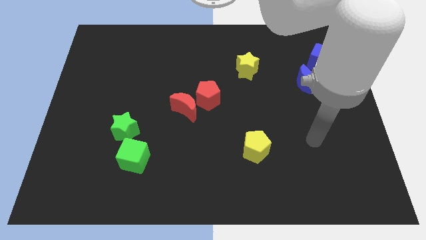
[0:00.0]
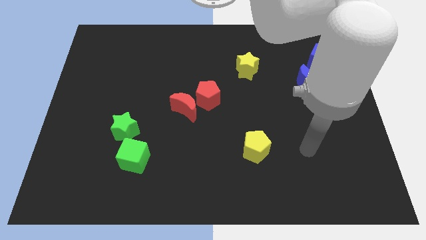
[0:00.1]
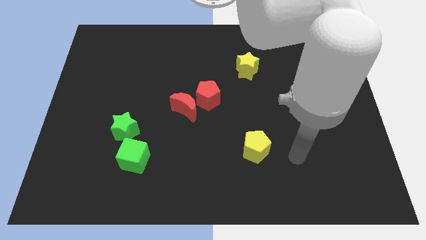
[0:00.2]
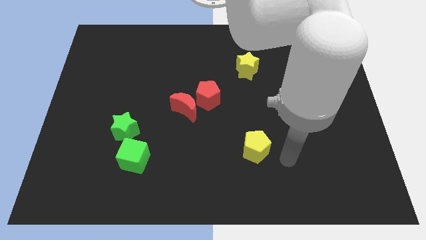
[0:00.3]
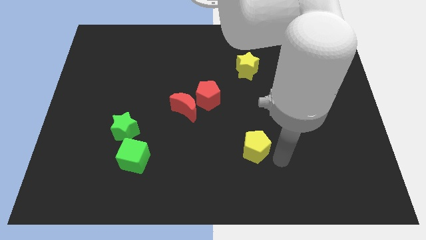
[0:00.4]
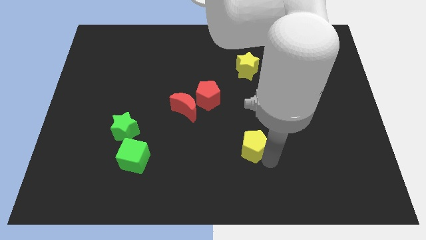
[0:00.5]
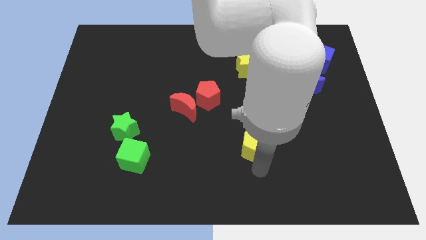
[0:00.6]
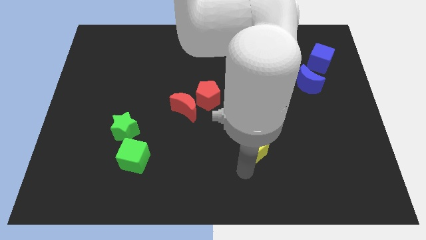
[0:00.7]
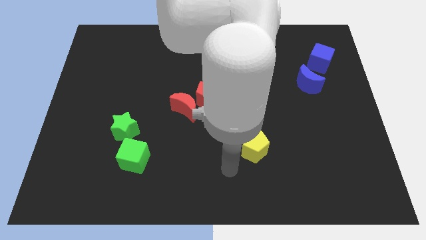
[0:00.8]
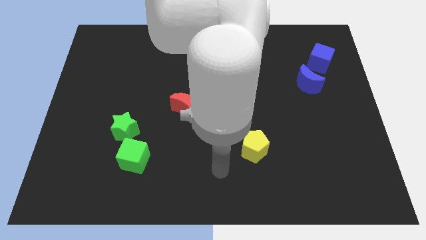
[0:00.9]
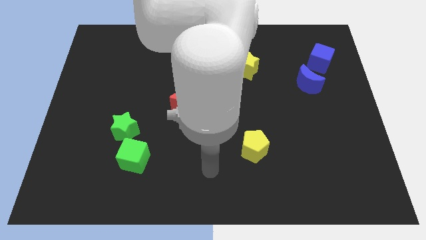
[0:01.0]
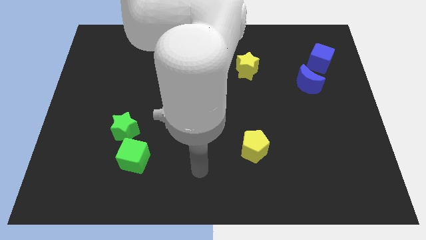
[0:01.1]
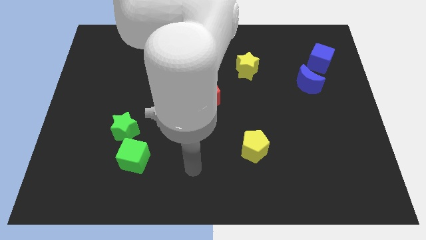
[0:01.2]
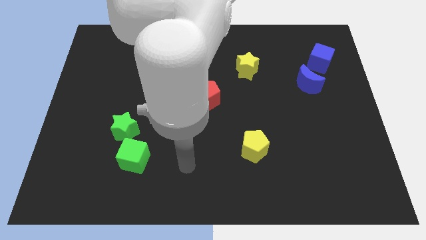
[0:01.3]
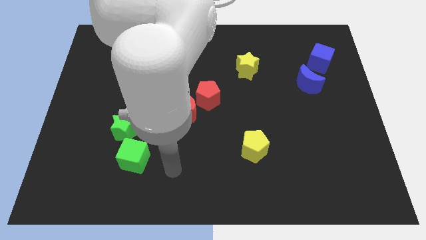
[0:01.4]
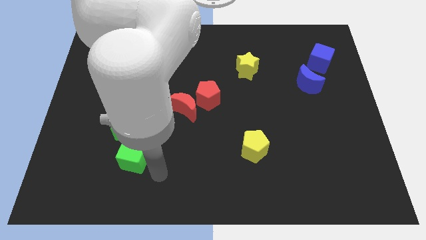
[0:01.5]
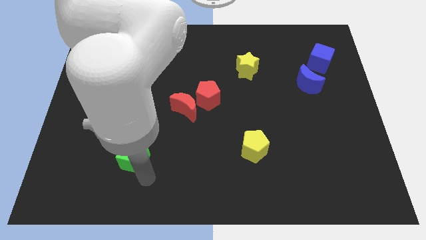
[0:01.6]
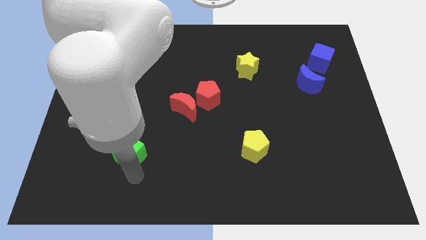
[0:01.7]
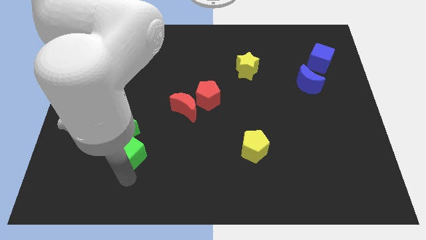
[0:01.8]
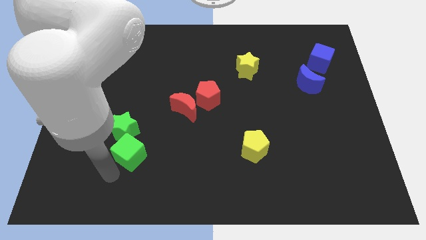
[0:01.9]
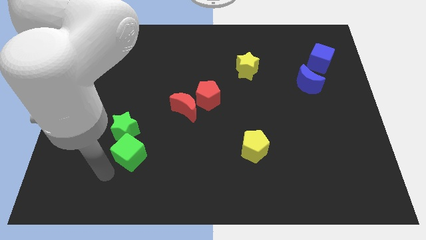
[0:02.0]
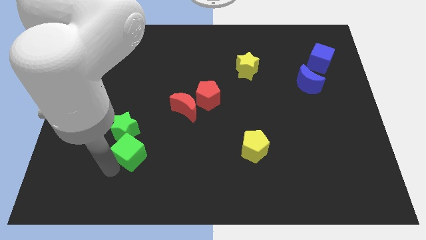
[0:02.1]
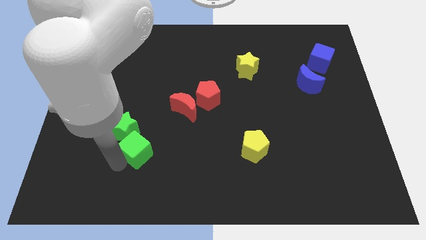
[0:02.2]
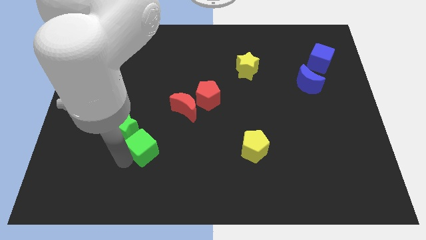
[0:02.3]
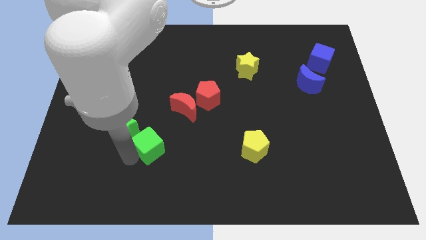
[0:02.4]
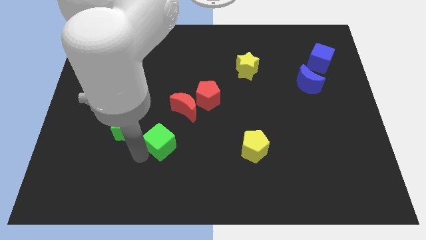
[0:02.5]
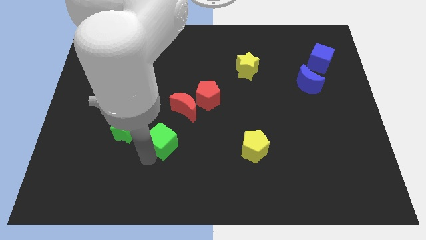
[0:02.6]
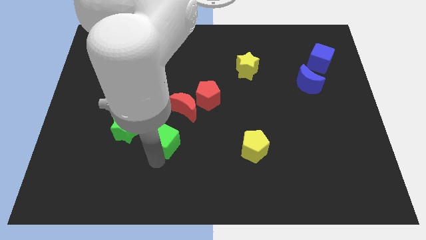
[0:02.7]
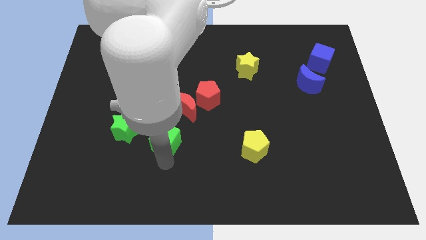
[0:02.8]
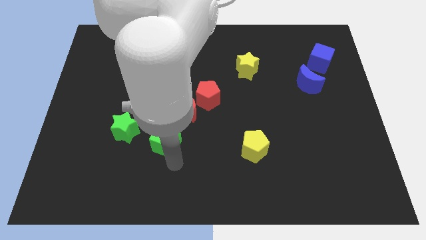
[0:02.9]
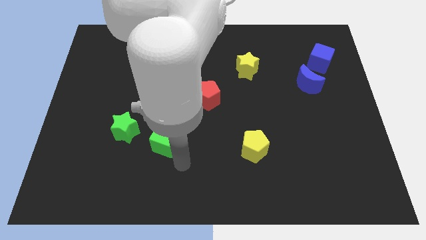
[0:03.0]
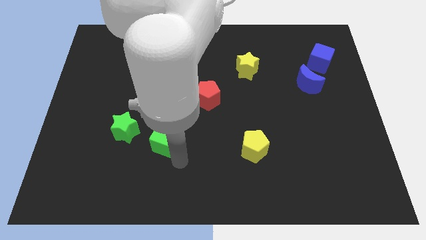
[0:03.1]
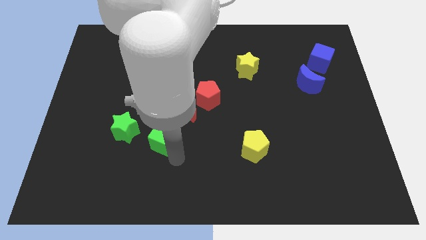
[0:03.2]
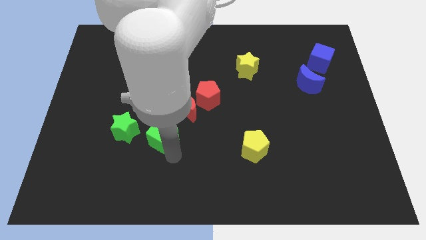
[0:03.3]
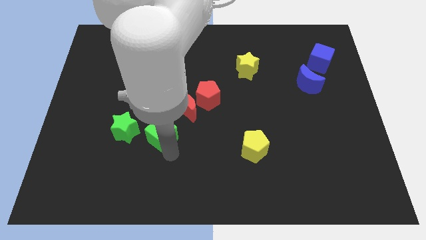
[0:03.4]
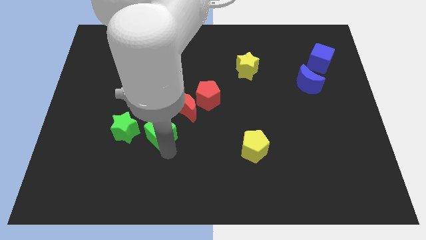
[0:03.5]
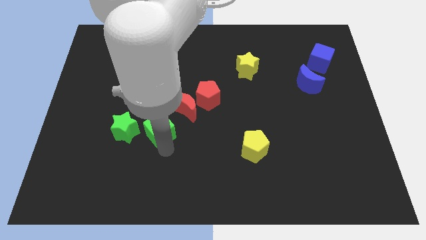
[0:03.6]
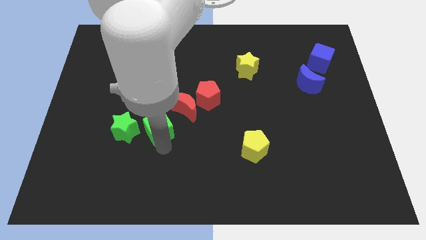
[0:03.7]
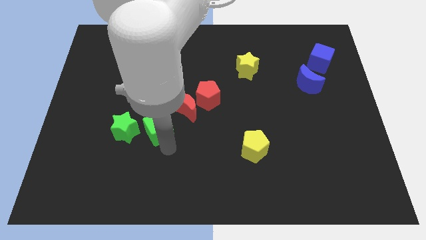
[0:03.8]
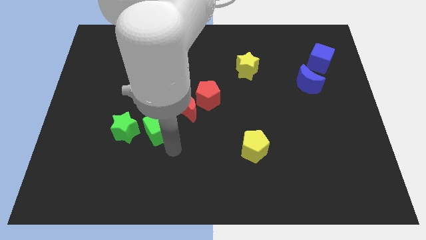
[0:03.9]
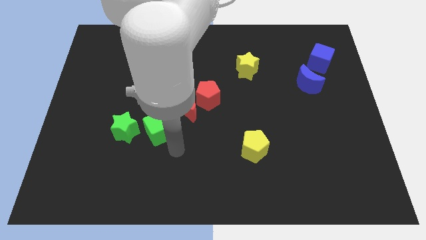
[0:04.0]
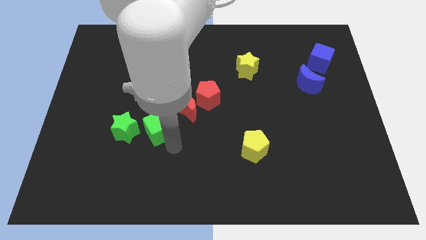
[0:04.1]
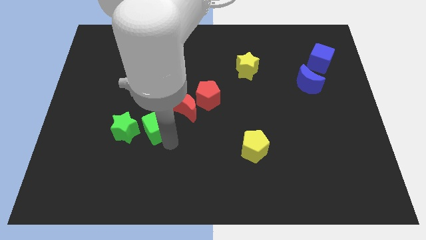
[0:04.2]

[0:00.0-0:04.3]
slightly move the green cube up

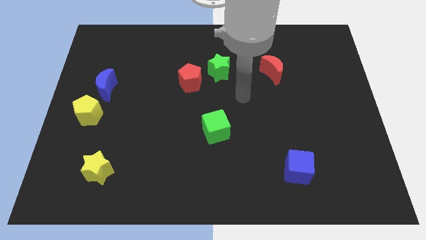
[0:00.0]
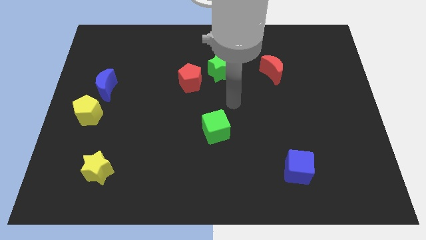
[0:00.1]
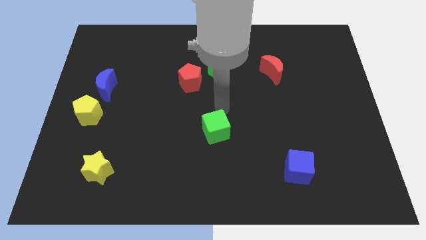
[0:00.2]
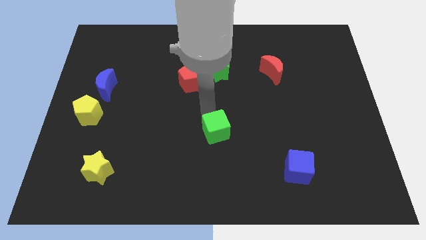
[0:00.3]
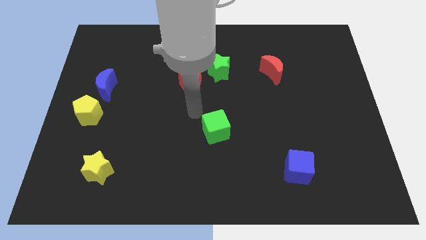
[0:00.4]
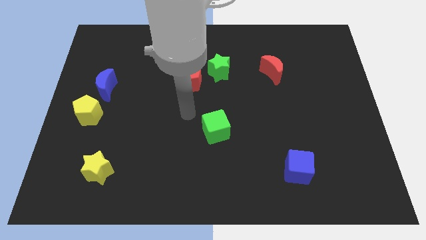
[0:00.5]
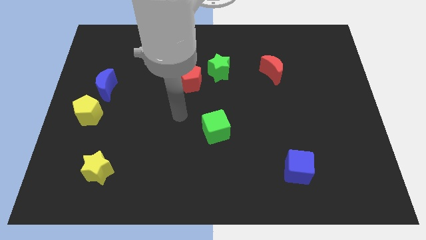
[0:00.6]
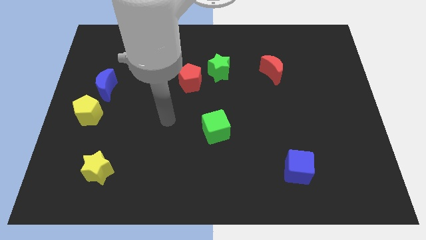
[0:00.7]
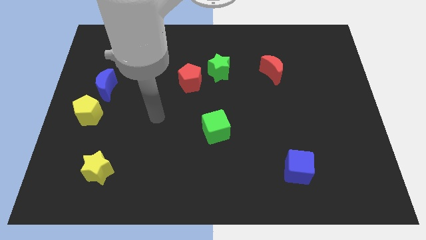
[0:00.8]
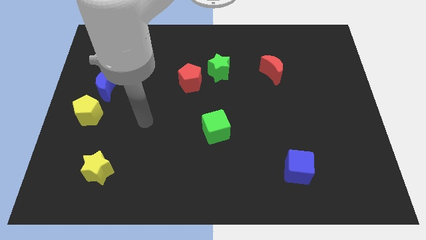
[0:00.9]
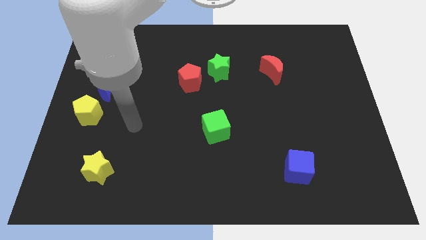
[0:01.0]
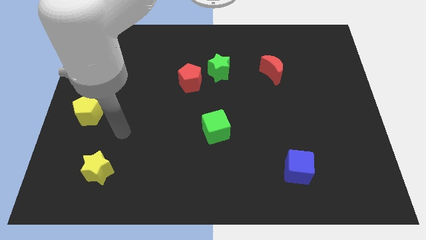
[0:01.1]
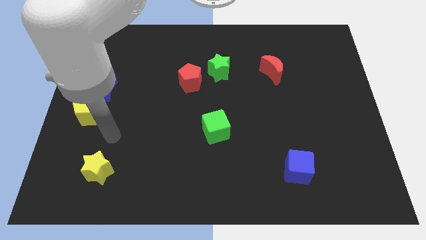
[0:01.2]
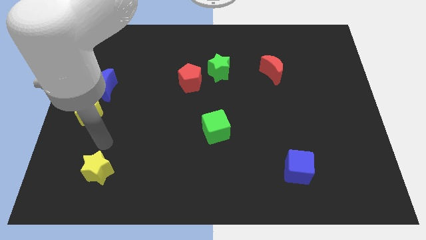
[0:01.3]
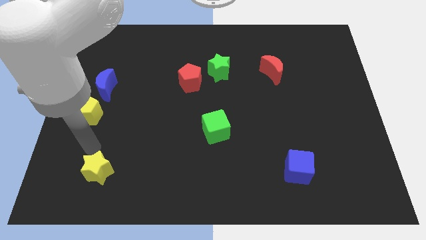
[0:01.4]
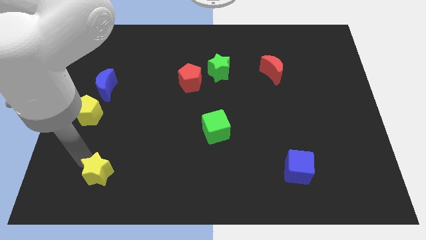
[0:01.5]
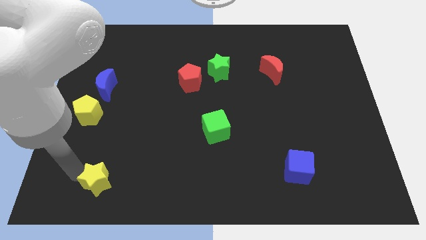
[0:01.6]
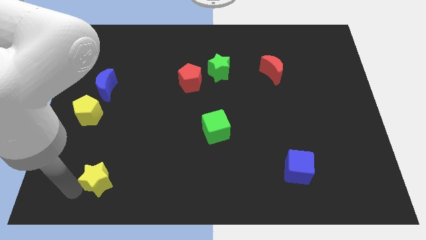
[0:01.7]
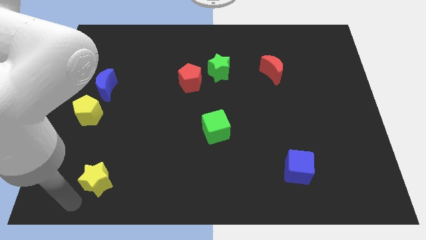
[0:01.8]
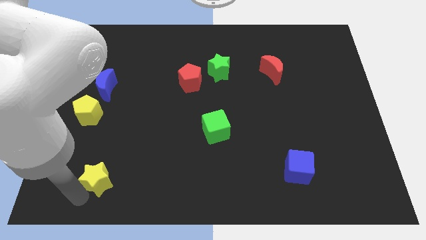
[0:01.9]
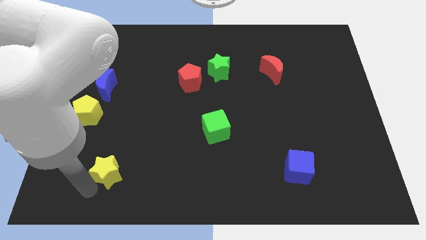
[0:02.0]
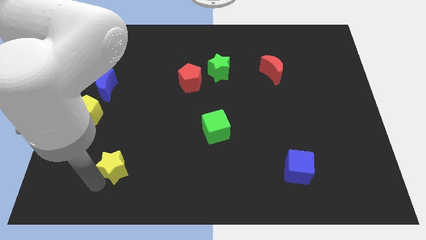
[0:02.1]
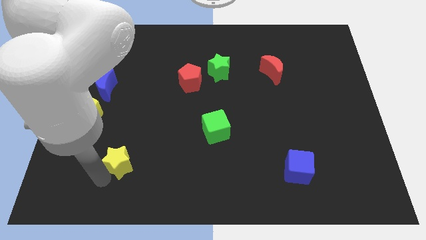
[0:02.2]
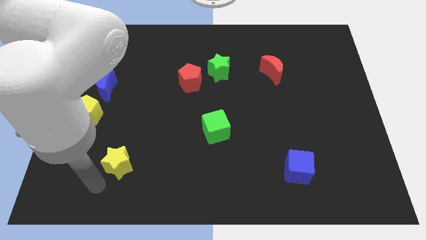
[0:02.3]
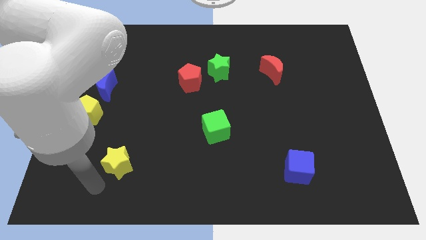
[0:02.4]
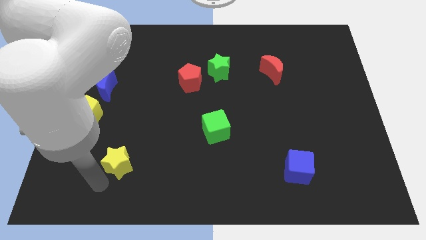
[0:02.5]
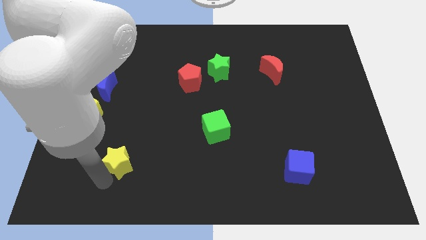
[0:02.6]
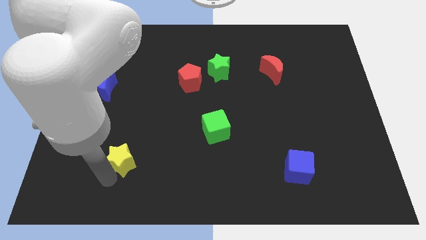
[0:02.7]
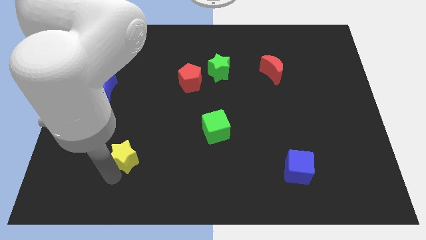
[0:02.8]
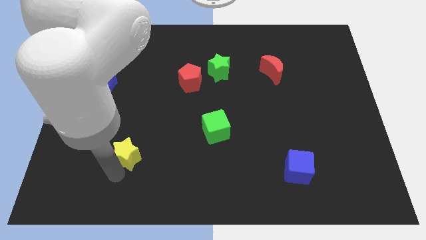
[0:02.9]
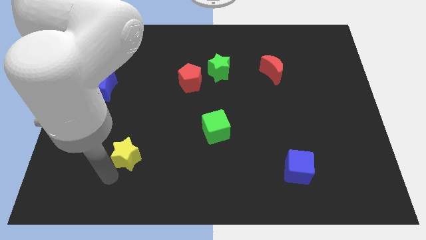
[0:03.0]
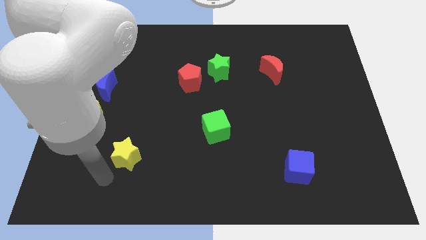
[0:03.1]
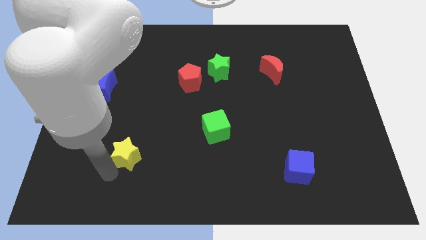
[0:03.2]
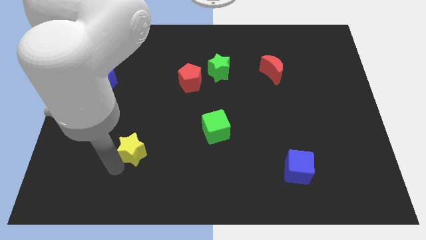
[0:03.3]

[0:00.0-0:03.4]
slightly slide the yellow star upwards and to the right diagonally

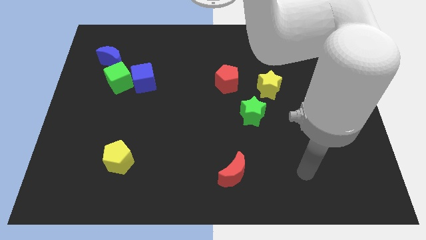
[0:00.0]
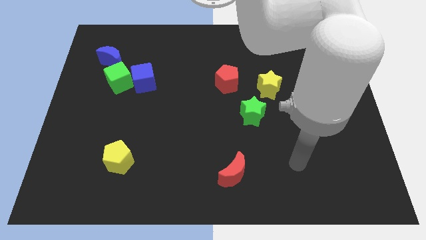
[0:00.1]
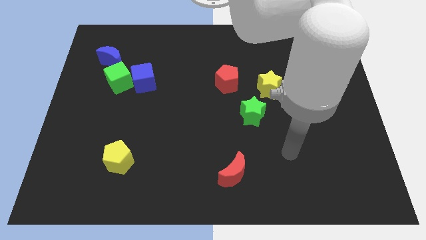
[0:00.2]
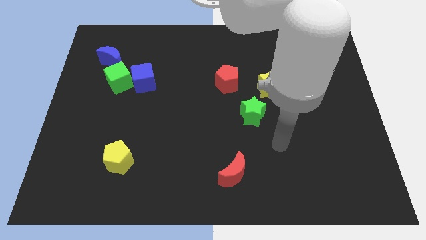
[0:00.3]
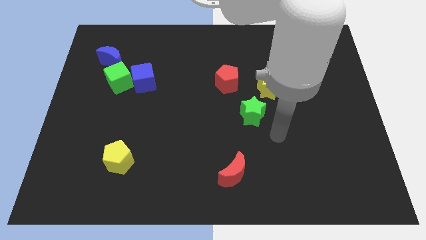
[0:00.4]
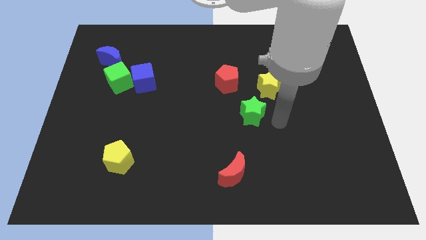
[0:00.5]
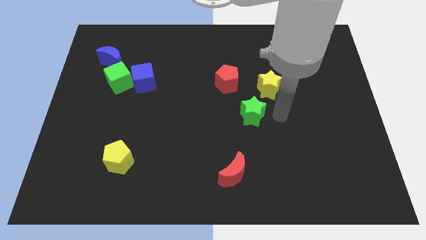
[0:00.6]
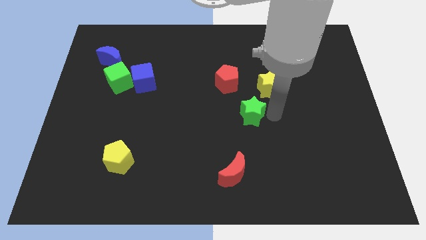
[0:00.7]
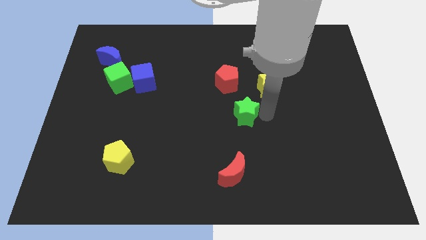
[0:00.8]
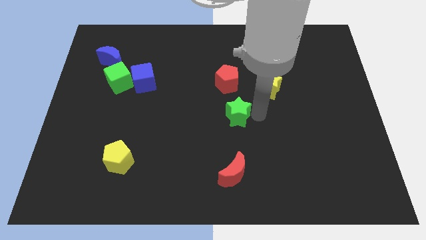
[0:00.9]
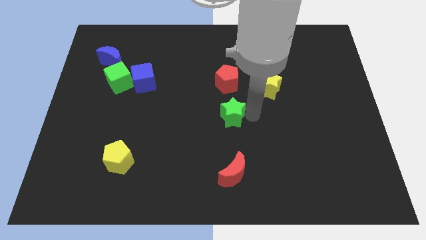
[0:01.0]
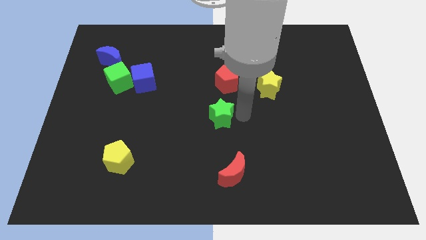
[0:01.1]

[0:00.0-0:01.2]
move the green star a little bit to the left
